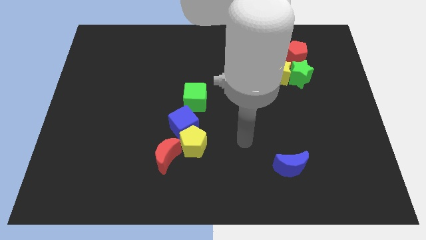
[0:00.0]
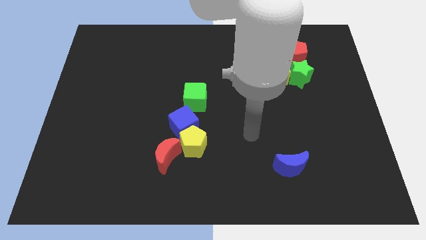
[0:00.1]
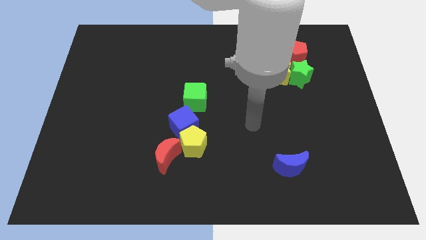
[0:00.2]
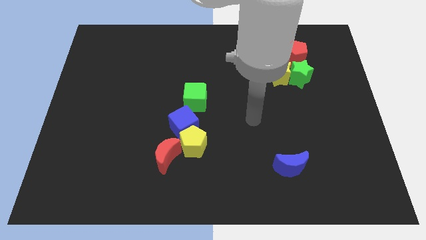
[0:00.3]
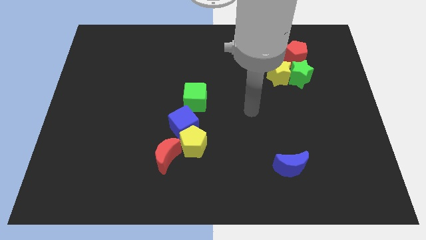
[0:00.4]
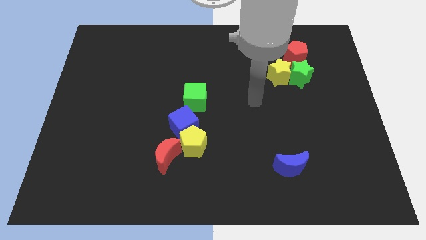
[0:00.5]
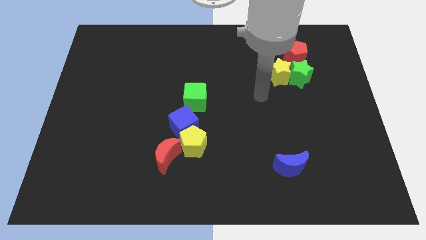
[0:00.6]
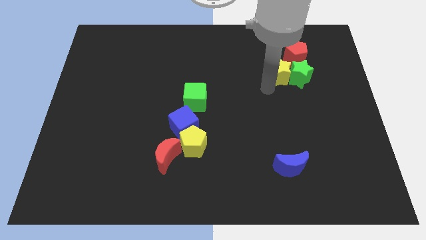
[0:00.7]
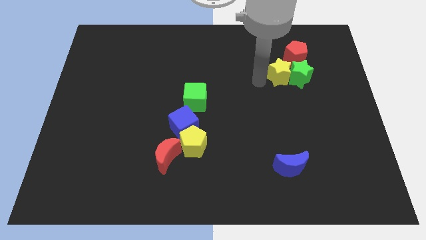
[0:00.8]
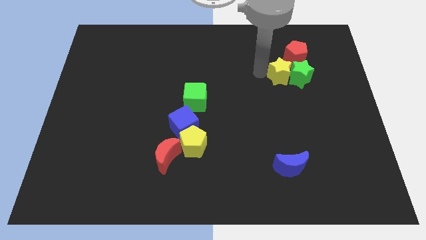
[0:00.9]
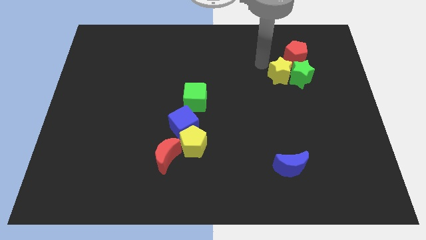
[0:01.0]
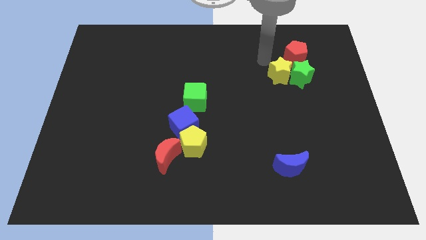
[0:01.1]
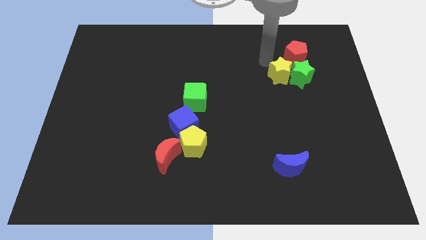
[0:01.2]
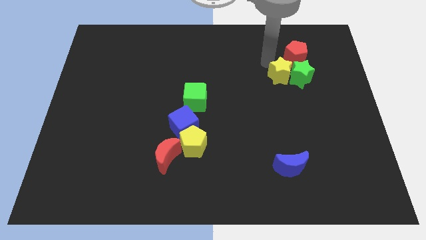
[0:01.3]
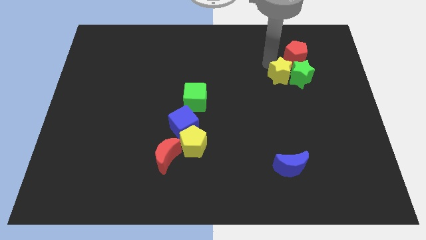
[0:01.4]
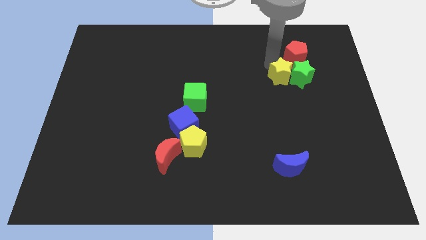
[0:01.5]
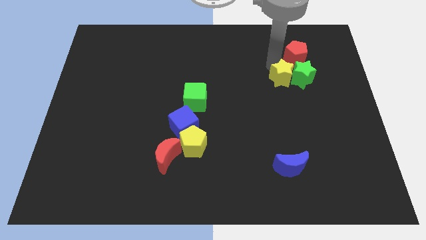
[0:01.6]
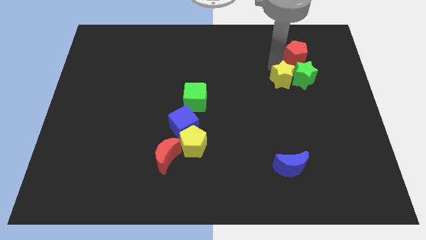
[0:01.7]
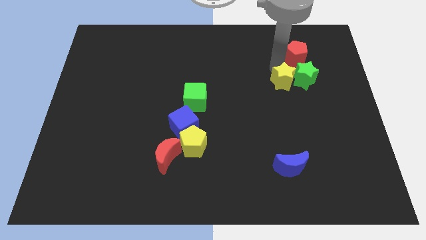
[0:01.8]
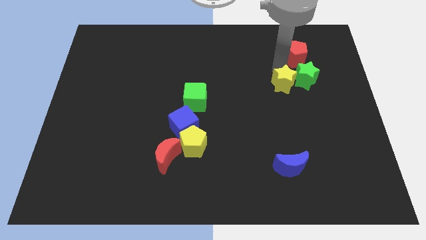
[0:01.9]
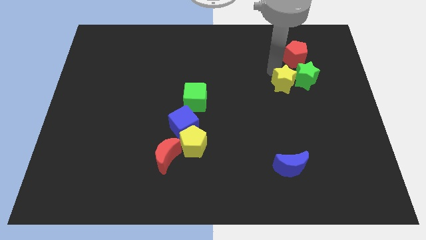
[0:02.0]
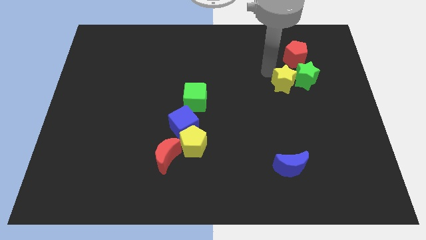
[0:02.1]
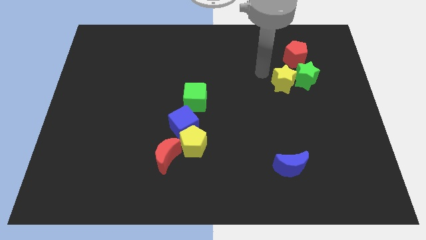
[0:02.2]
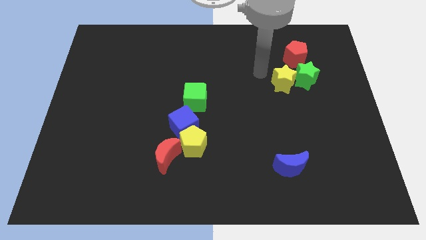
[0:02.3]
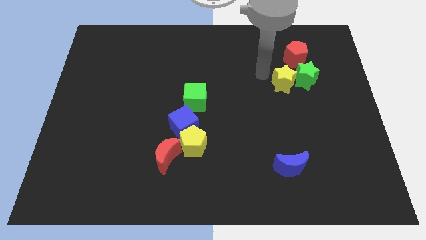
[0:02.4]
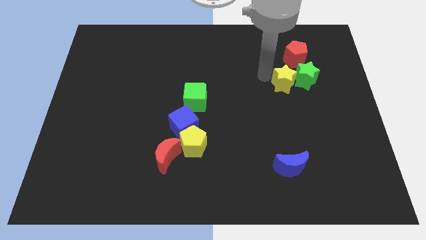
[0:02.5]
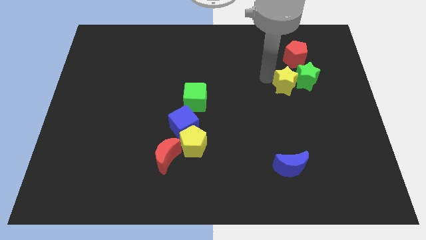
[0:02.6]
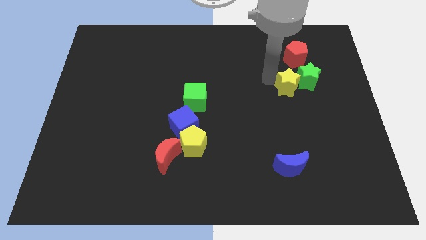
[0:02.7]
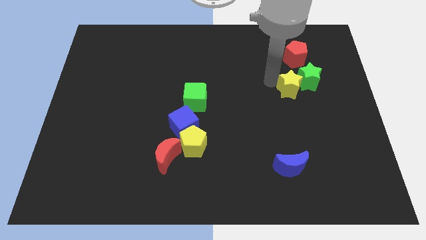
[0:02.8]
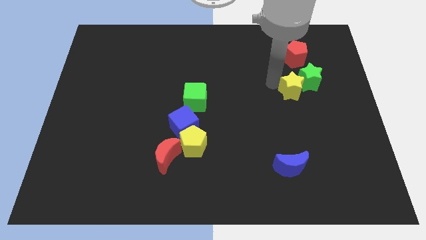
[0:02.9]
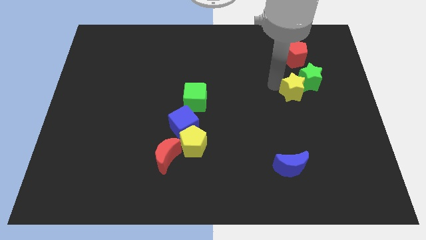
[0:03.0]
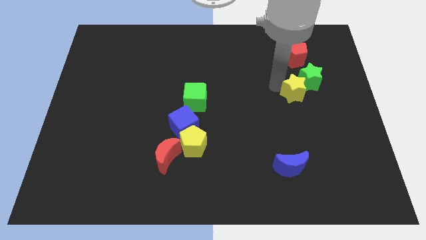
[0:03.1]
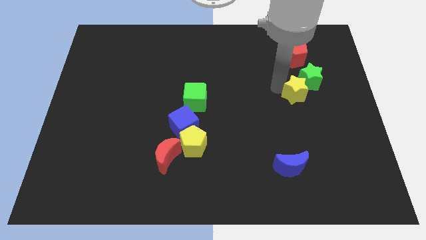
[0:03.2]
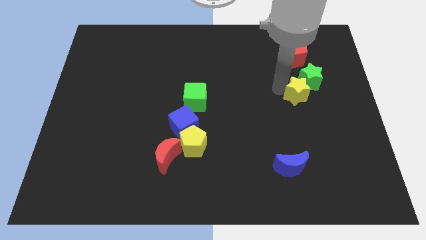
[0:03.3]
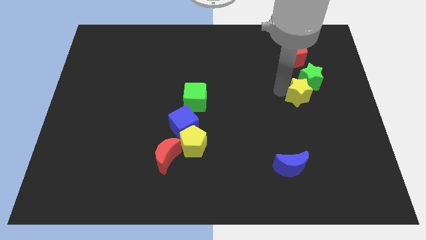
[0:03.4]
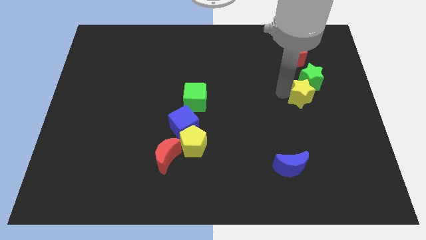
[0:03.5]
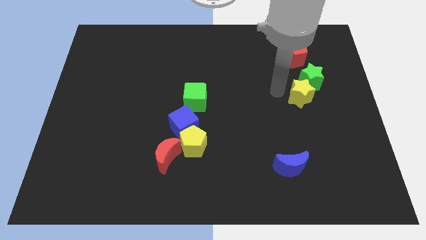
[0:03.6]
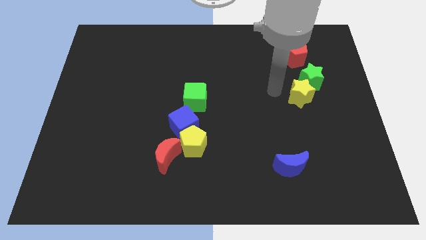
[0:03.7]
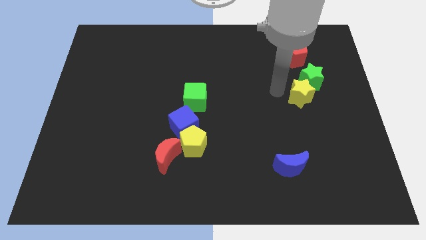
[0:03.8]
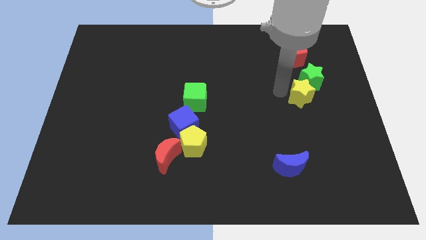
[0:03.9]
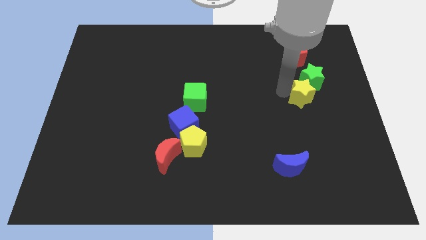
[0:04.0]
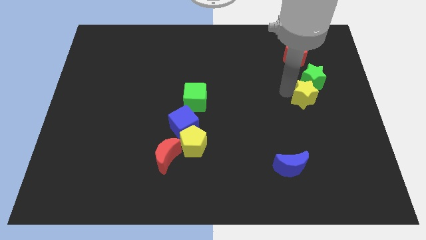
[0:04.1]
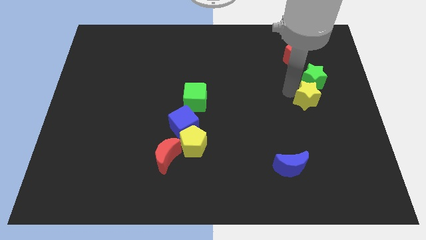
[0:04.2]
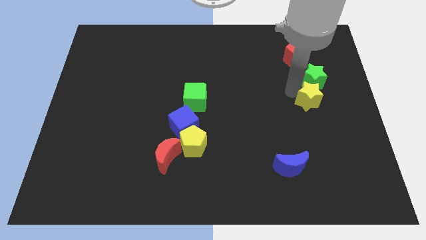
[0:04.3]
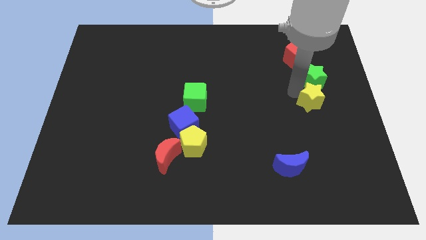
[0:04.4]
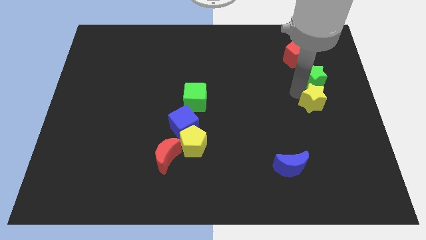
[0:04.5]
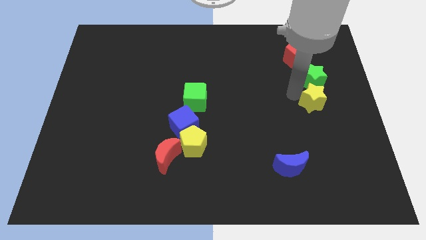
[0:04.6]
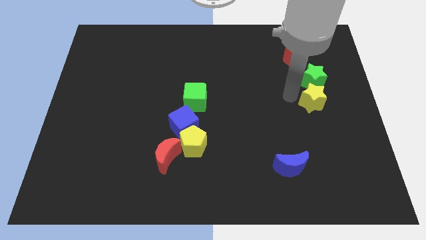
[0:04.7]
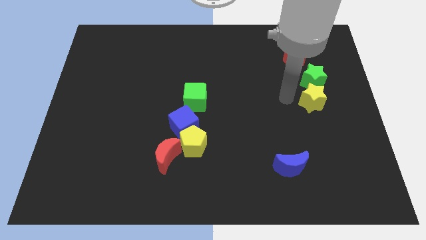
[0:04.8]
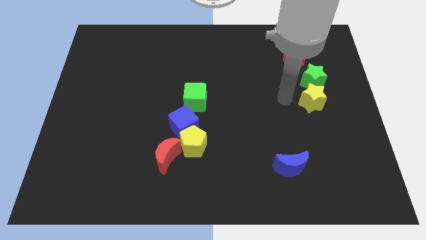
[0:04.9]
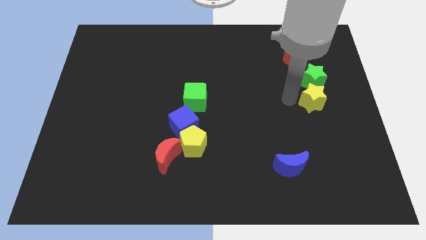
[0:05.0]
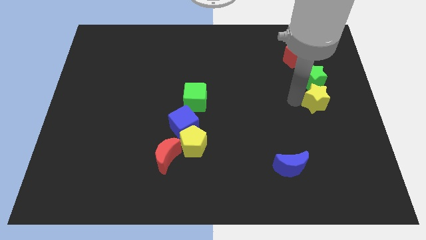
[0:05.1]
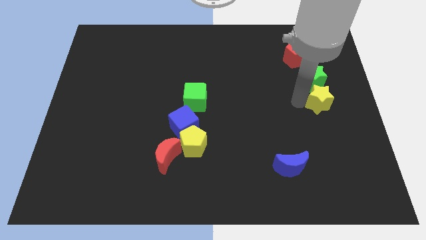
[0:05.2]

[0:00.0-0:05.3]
move the yellow star to the right side

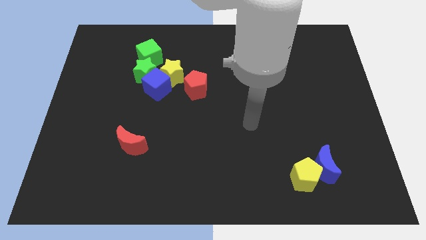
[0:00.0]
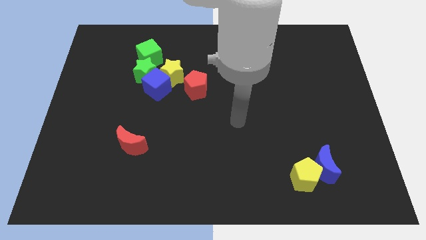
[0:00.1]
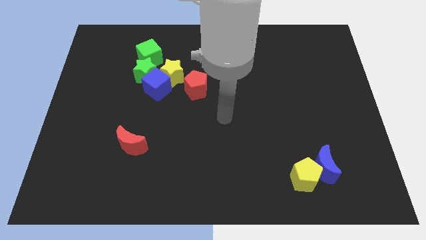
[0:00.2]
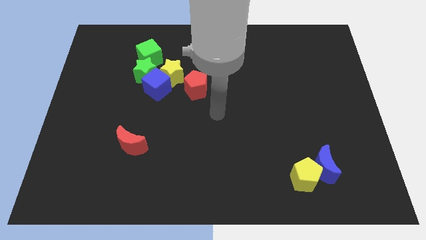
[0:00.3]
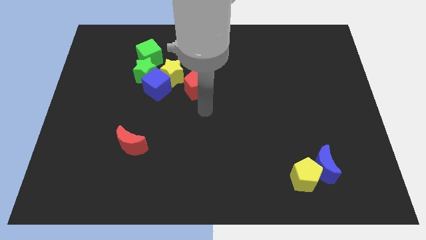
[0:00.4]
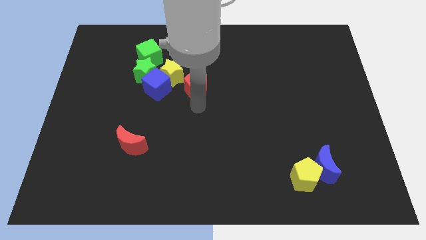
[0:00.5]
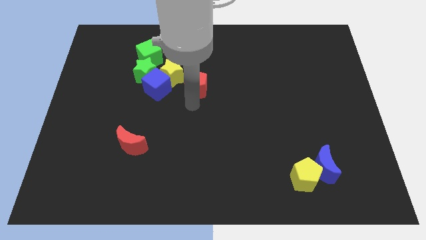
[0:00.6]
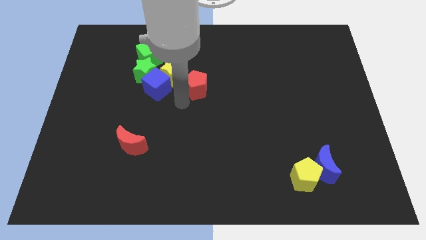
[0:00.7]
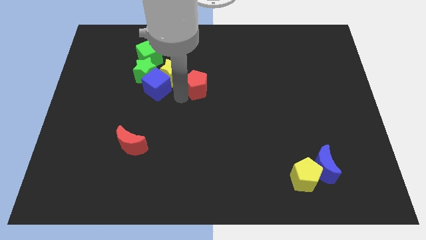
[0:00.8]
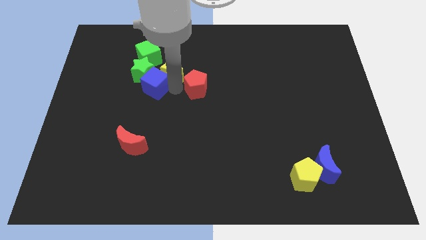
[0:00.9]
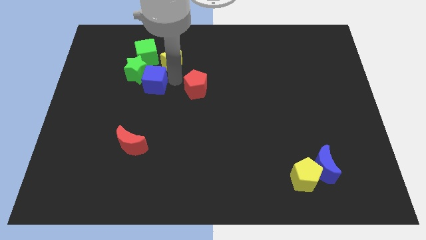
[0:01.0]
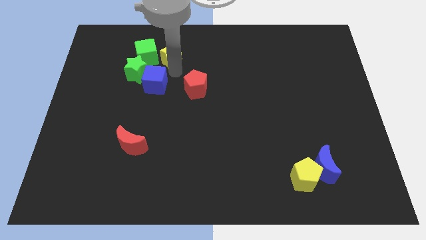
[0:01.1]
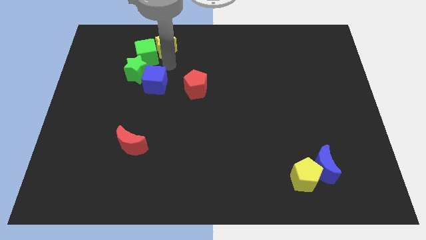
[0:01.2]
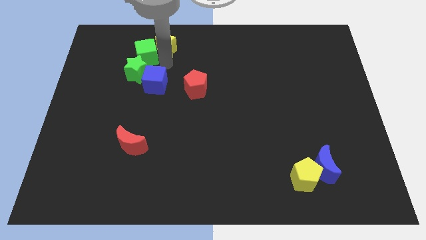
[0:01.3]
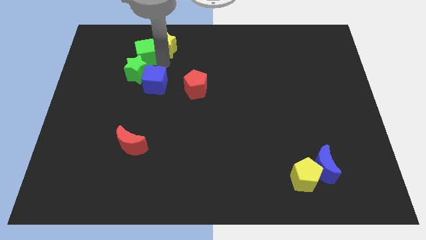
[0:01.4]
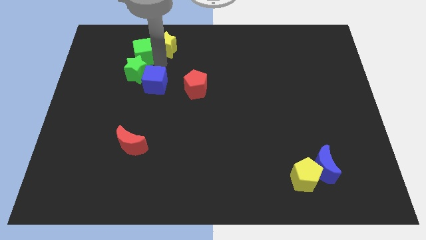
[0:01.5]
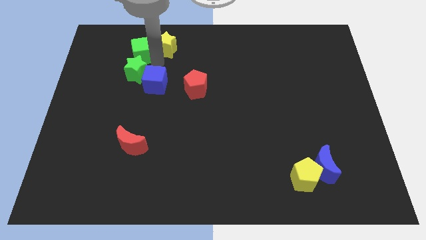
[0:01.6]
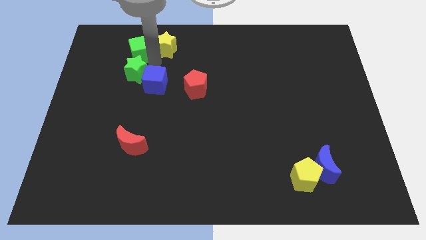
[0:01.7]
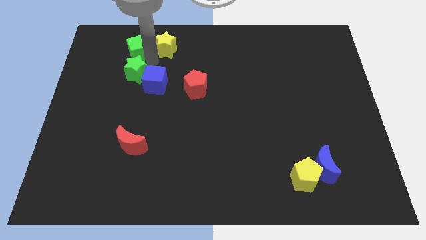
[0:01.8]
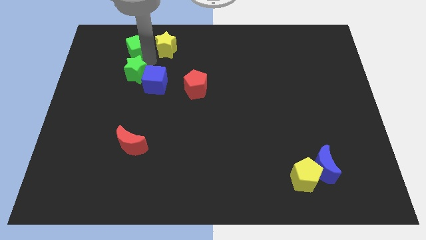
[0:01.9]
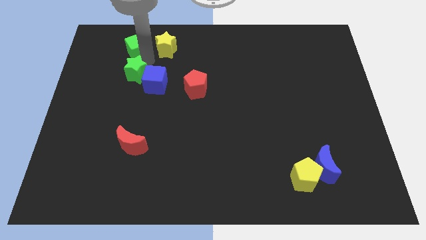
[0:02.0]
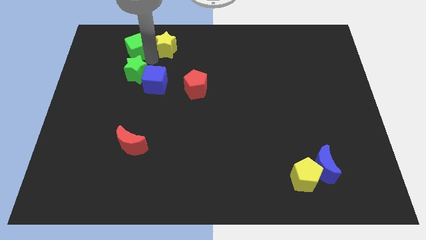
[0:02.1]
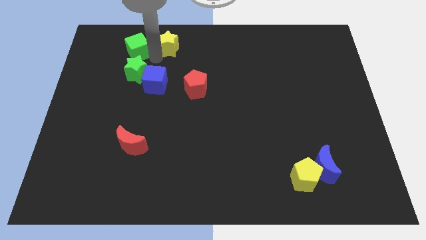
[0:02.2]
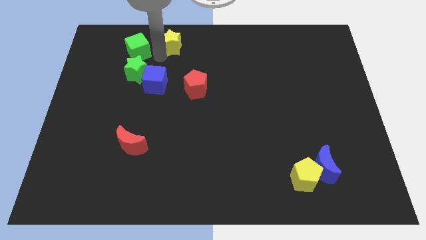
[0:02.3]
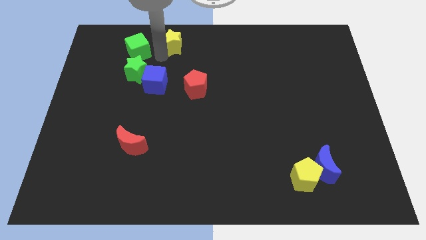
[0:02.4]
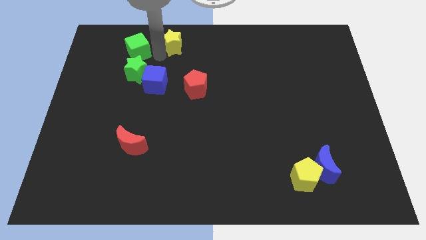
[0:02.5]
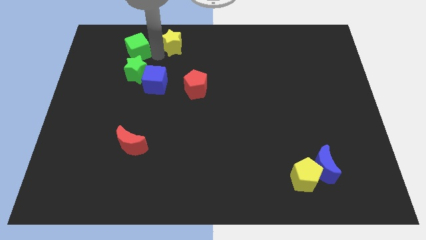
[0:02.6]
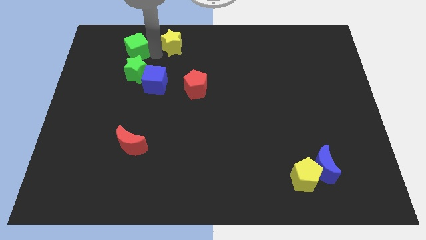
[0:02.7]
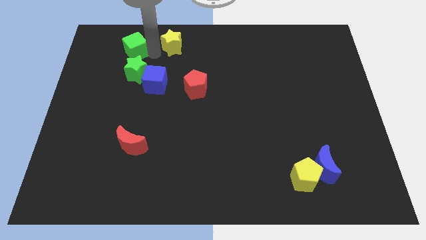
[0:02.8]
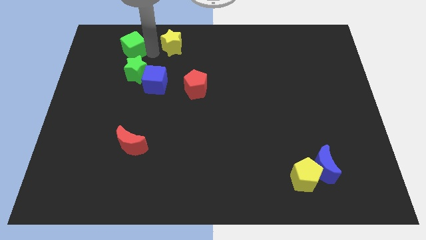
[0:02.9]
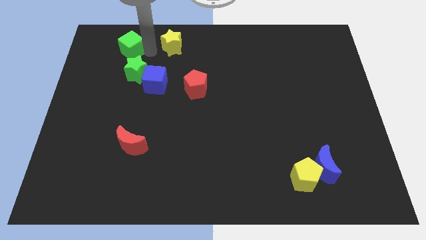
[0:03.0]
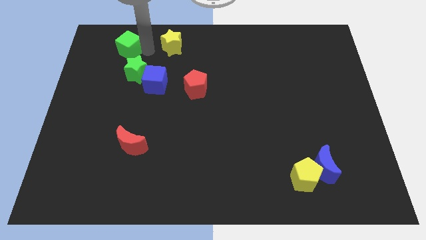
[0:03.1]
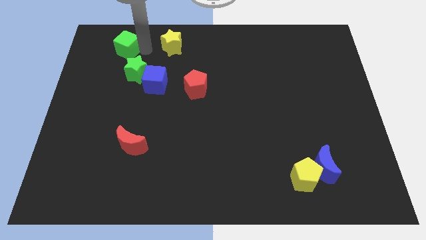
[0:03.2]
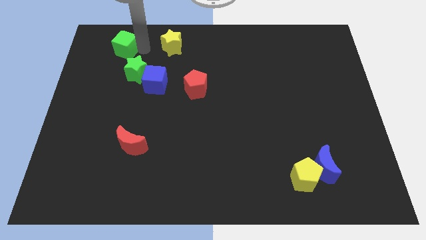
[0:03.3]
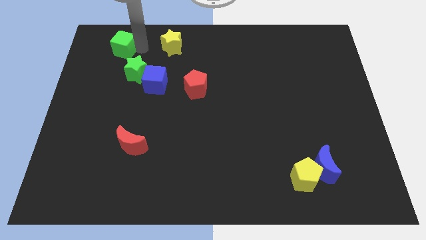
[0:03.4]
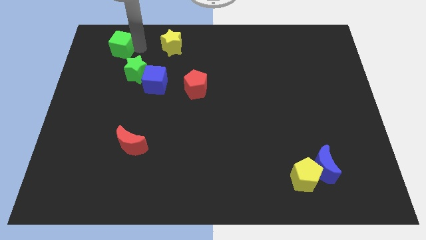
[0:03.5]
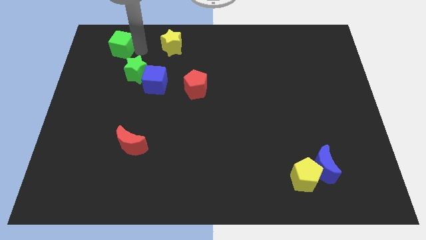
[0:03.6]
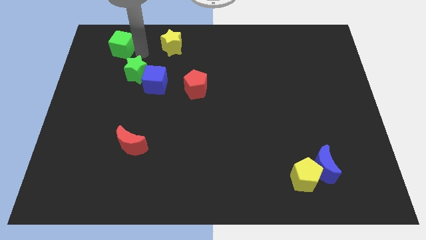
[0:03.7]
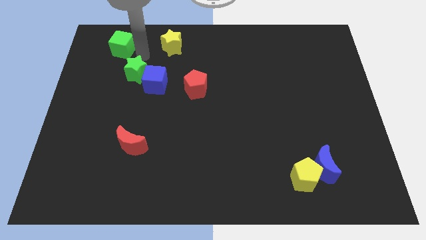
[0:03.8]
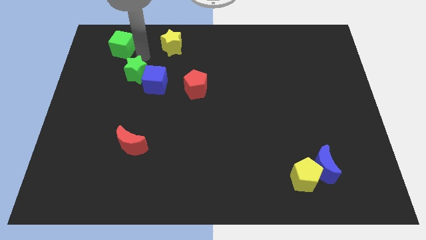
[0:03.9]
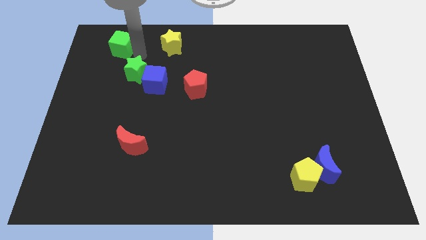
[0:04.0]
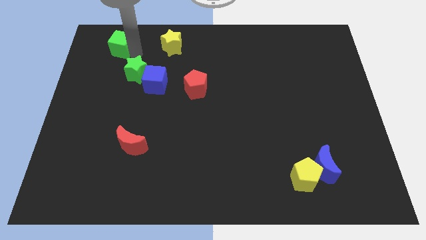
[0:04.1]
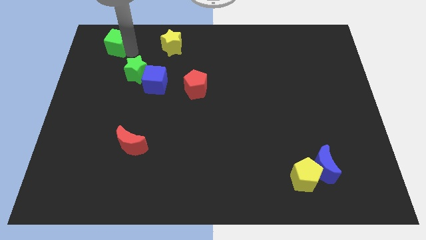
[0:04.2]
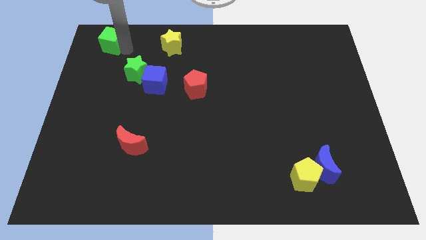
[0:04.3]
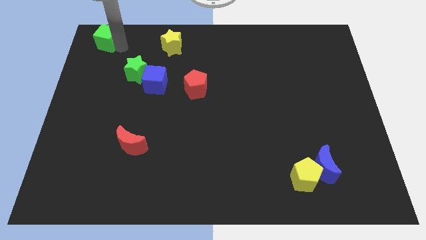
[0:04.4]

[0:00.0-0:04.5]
push the green cube to the top left corner
